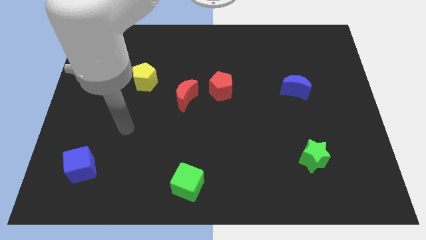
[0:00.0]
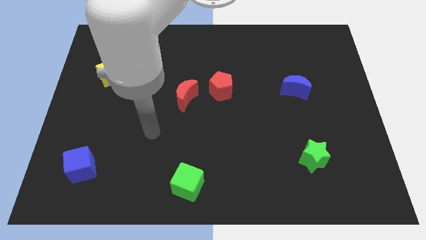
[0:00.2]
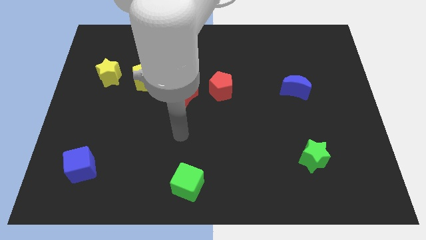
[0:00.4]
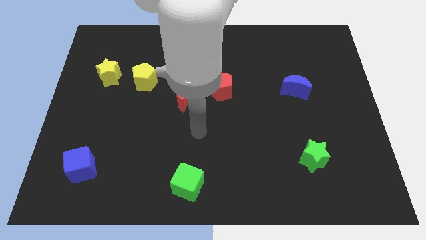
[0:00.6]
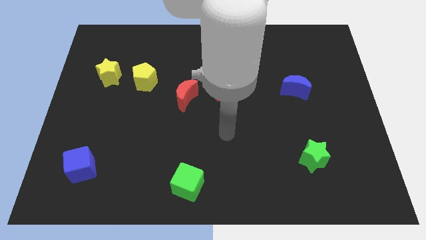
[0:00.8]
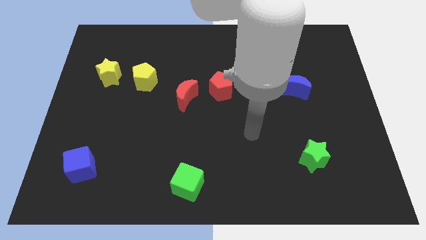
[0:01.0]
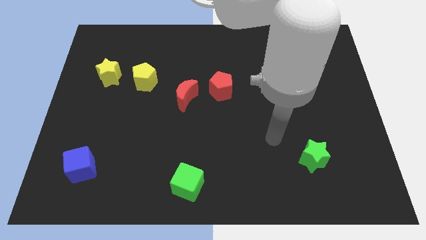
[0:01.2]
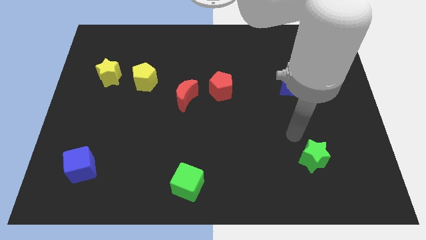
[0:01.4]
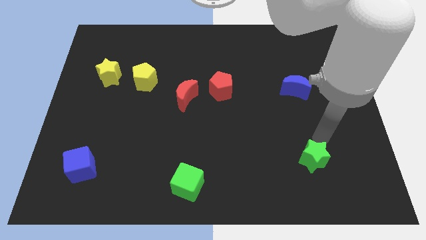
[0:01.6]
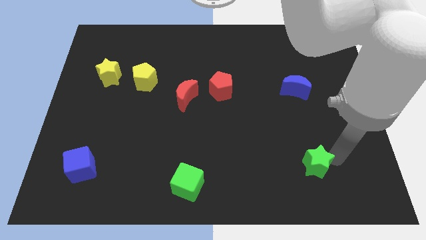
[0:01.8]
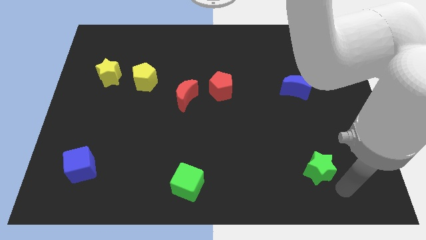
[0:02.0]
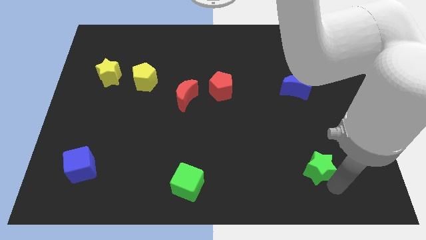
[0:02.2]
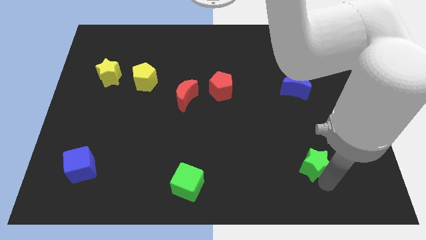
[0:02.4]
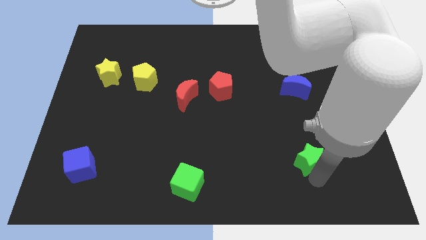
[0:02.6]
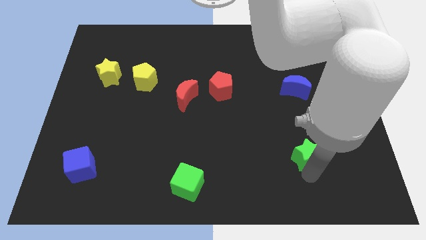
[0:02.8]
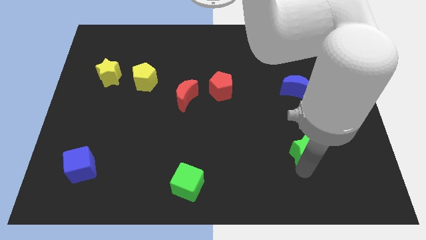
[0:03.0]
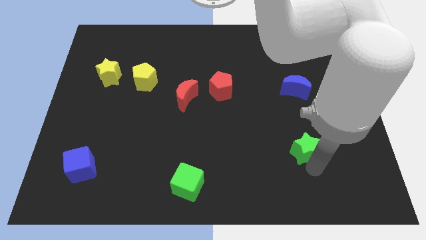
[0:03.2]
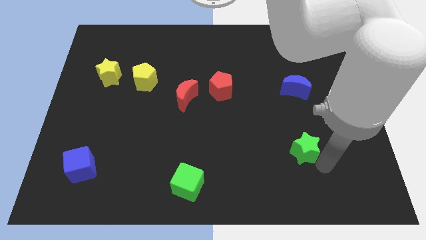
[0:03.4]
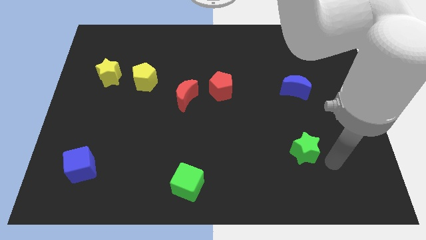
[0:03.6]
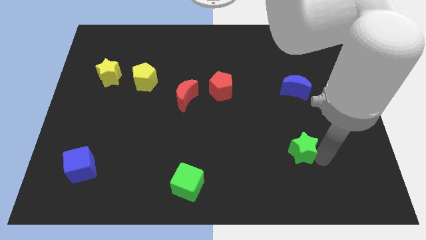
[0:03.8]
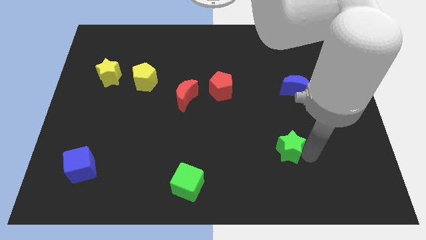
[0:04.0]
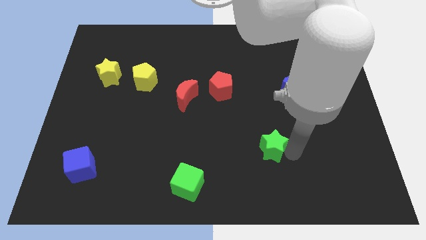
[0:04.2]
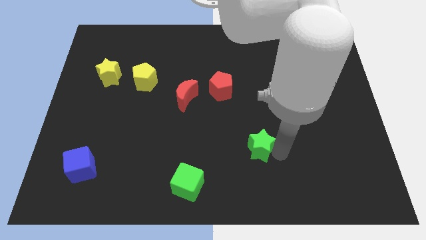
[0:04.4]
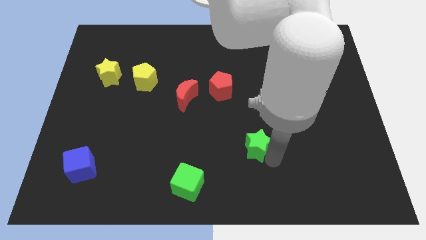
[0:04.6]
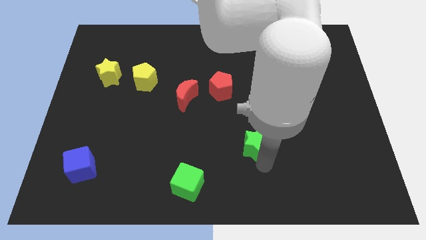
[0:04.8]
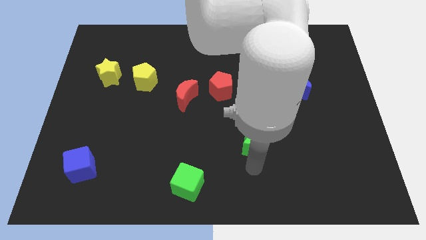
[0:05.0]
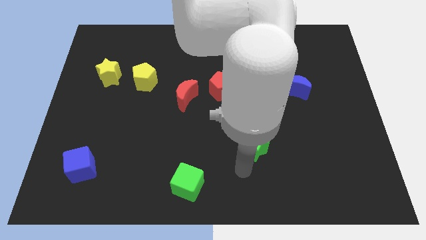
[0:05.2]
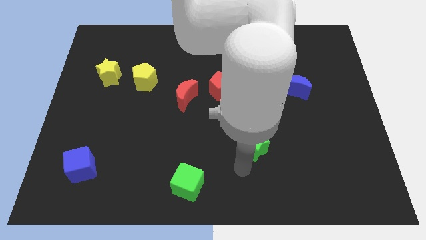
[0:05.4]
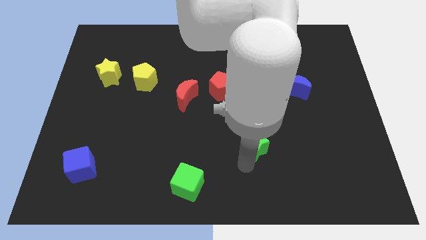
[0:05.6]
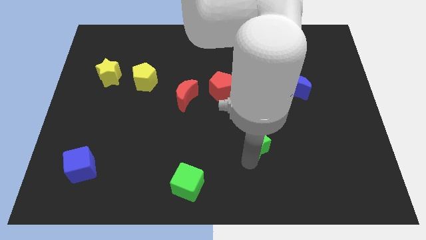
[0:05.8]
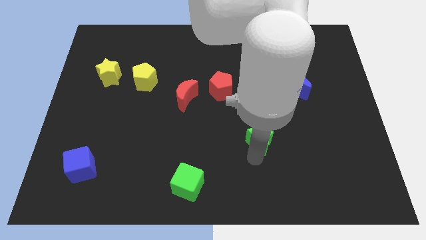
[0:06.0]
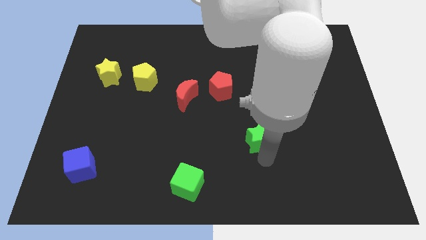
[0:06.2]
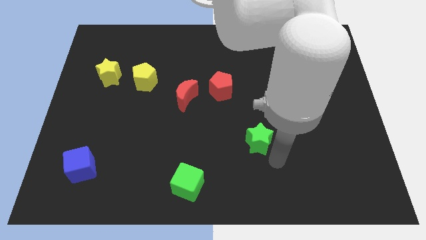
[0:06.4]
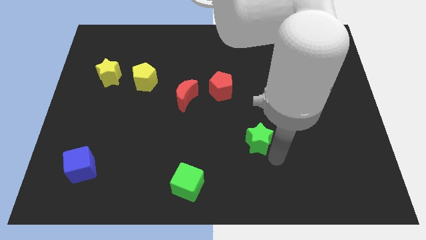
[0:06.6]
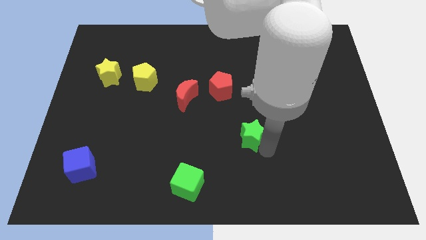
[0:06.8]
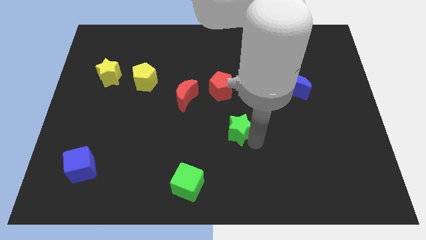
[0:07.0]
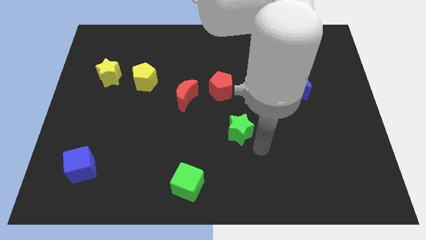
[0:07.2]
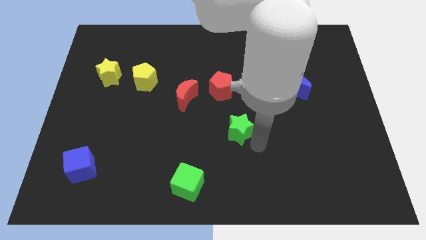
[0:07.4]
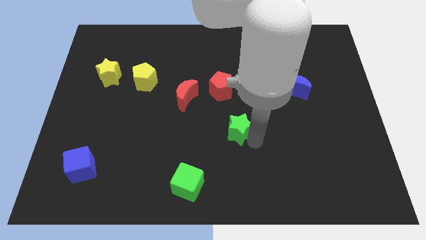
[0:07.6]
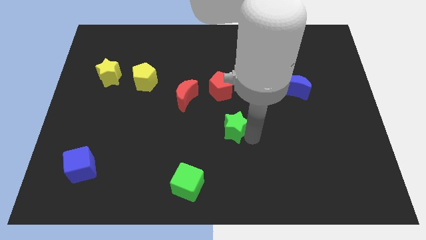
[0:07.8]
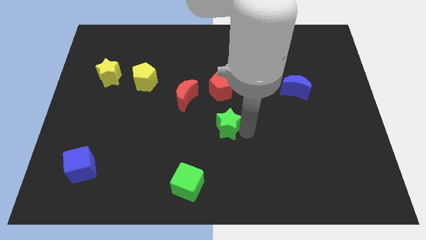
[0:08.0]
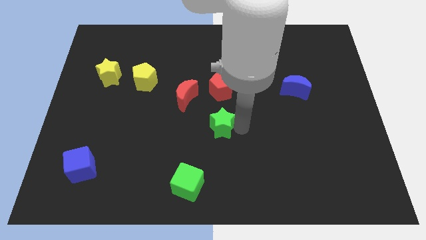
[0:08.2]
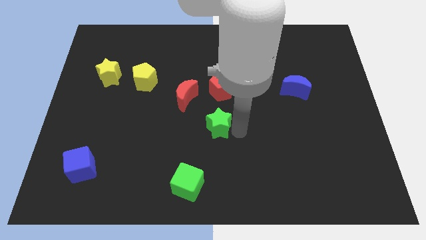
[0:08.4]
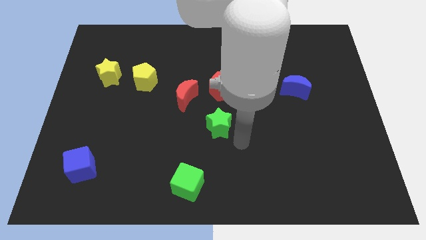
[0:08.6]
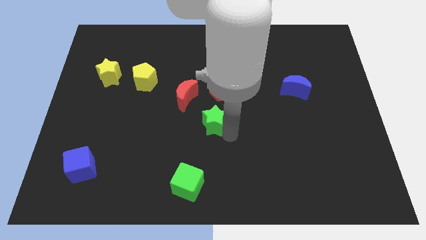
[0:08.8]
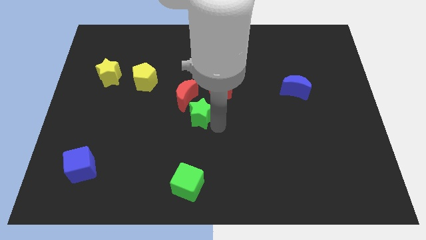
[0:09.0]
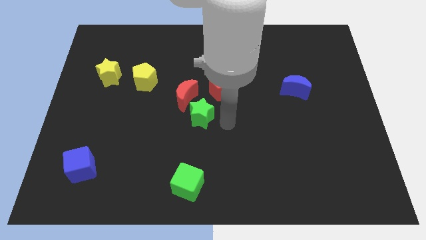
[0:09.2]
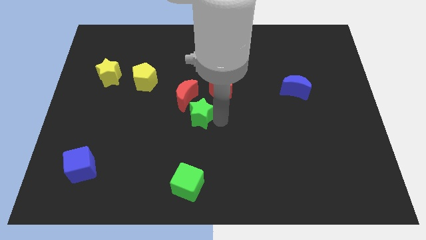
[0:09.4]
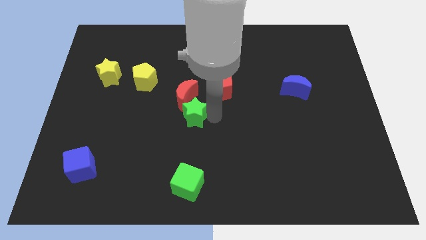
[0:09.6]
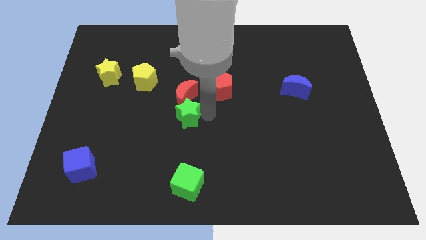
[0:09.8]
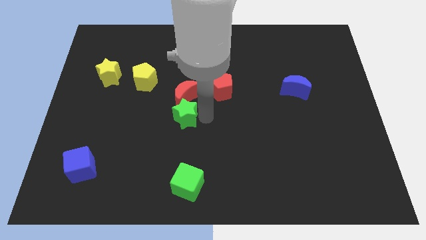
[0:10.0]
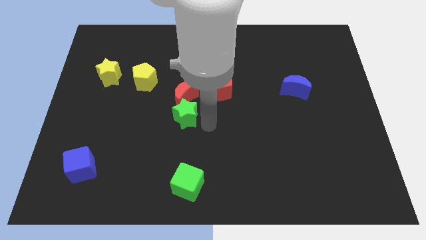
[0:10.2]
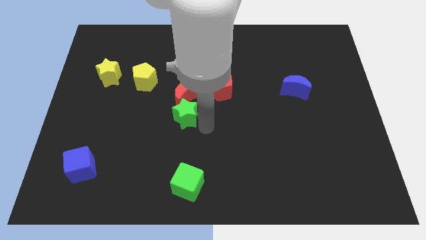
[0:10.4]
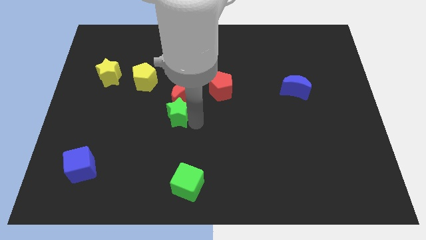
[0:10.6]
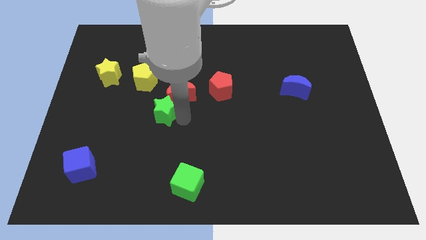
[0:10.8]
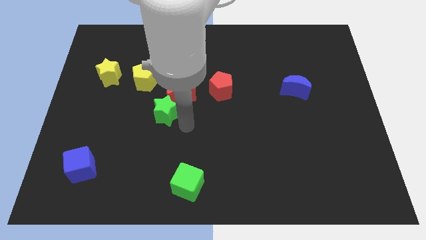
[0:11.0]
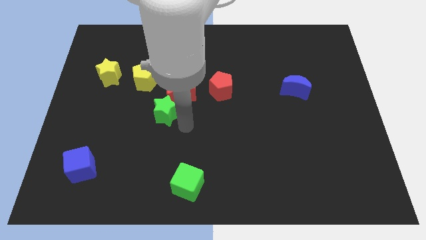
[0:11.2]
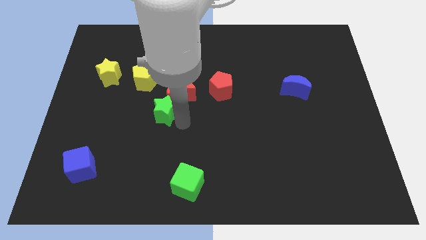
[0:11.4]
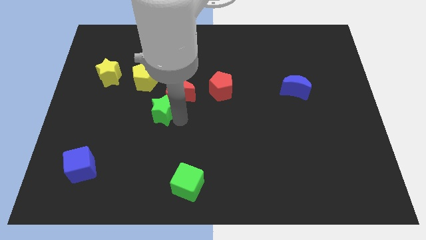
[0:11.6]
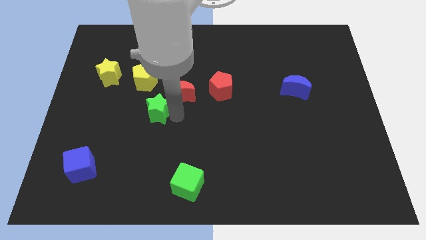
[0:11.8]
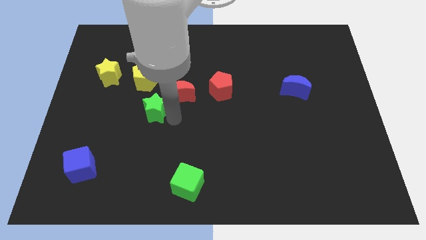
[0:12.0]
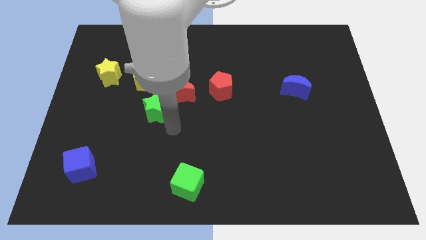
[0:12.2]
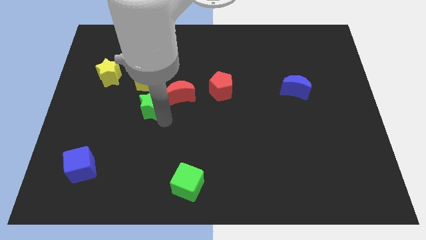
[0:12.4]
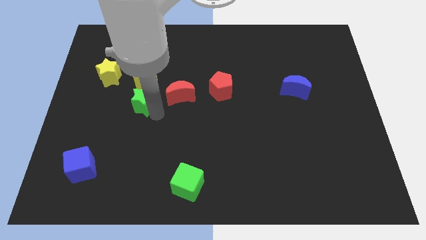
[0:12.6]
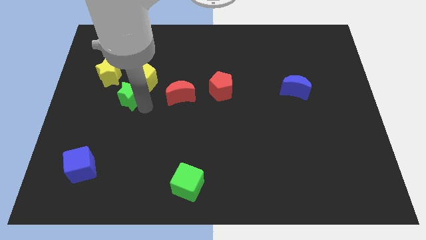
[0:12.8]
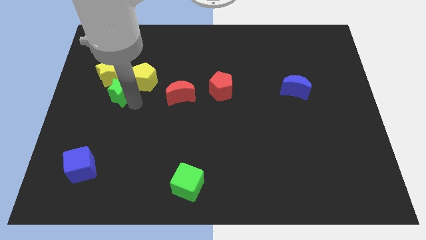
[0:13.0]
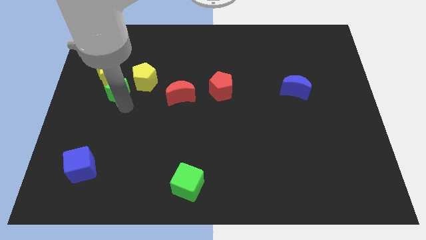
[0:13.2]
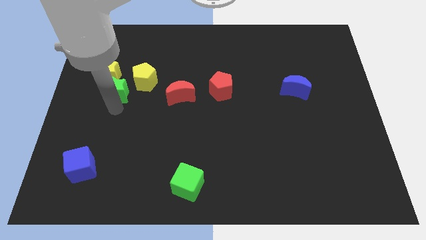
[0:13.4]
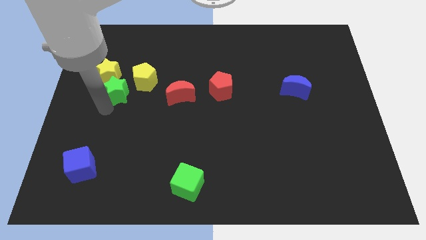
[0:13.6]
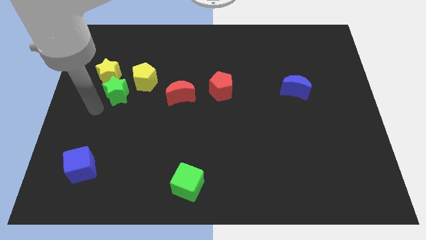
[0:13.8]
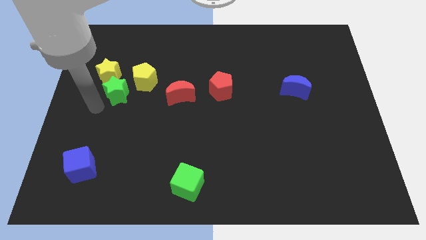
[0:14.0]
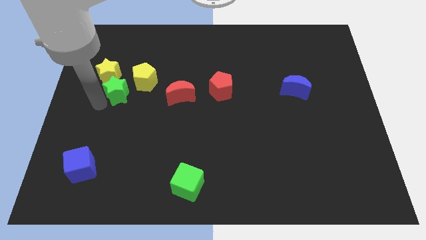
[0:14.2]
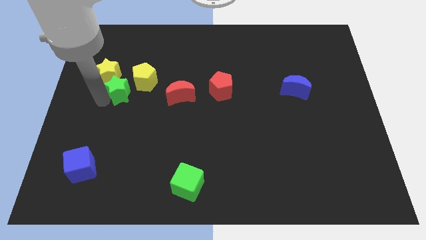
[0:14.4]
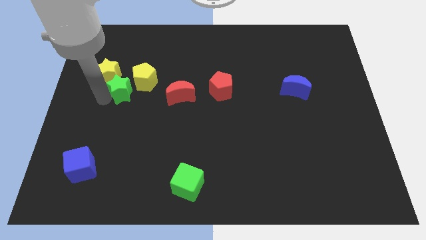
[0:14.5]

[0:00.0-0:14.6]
move the green star close to the yellow star

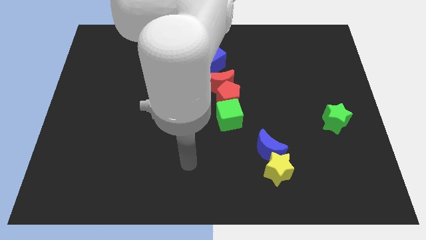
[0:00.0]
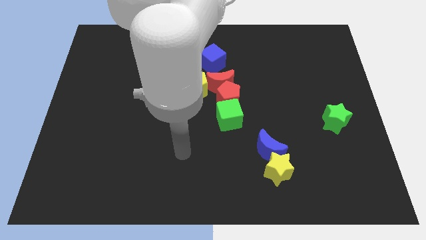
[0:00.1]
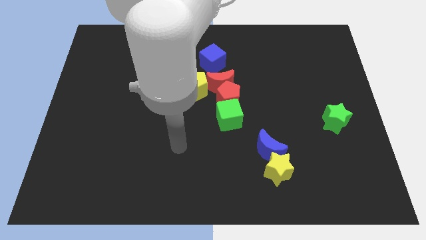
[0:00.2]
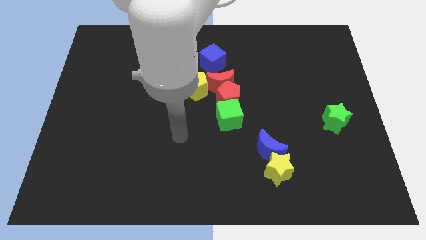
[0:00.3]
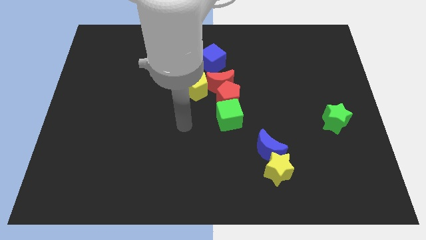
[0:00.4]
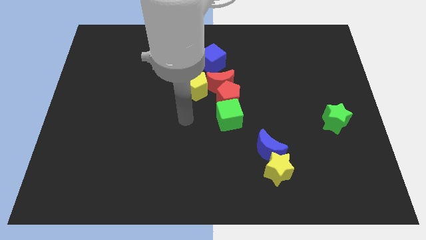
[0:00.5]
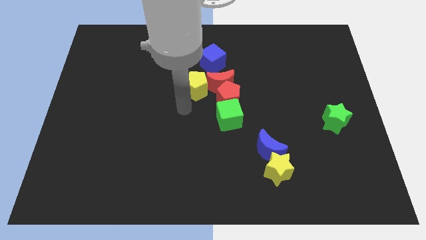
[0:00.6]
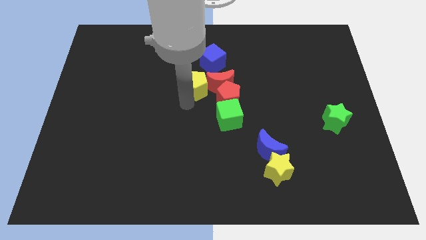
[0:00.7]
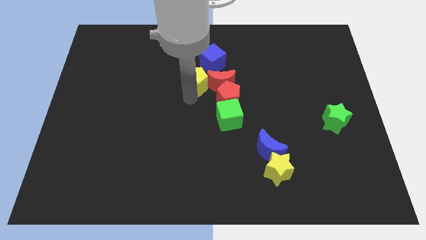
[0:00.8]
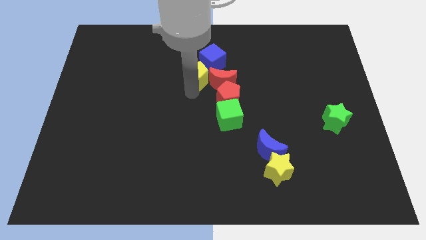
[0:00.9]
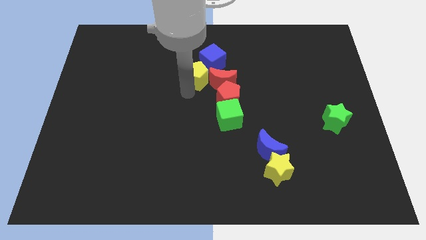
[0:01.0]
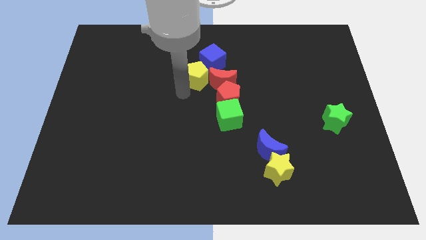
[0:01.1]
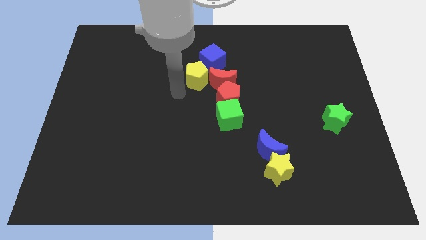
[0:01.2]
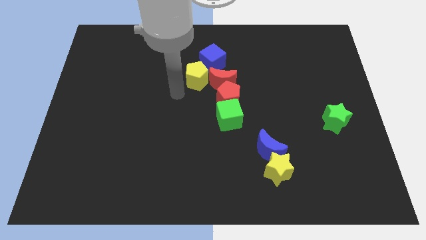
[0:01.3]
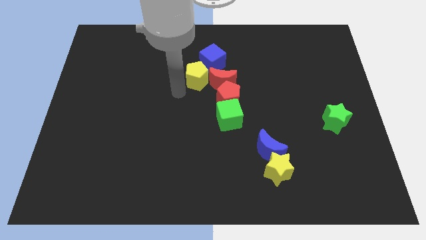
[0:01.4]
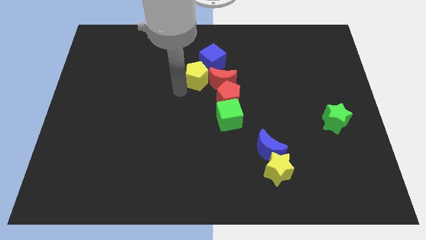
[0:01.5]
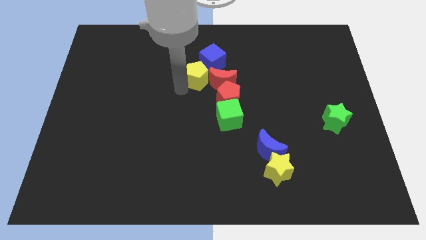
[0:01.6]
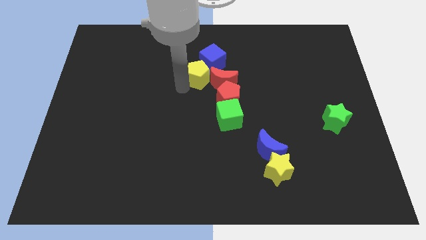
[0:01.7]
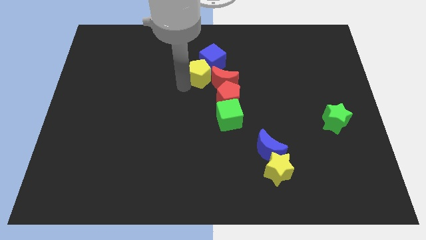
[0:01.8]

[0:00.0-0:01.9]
push the yellow pentagon next to the blue cube
